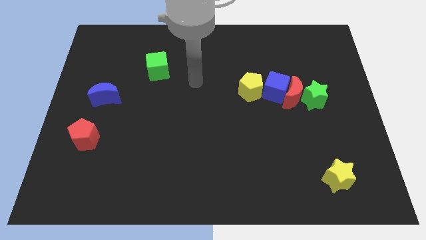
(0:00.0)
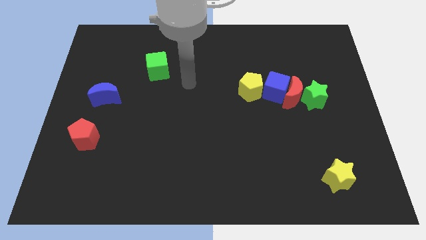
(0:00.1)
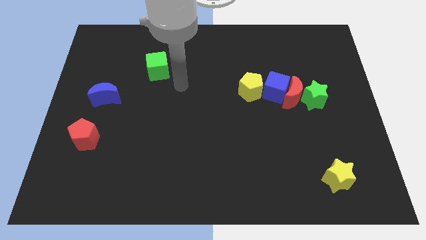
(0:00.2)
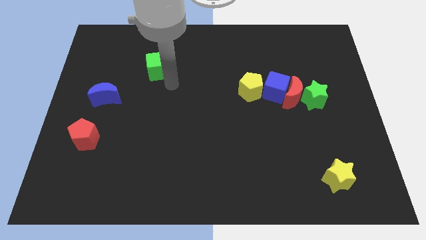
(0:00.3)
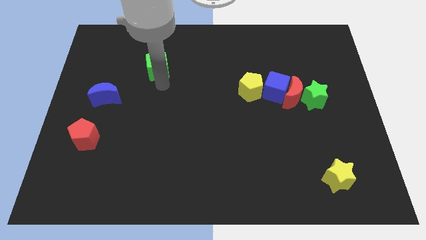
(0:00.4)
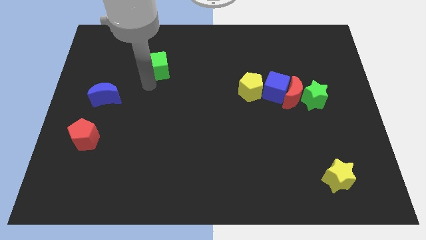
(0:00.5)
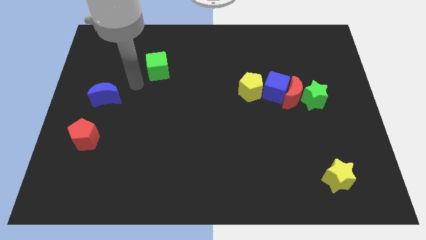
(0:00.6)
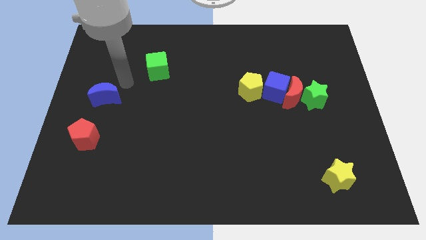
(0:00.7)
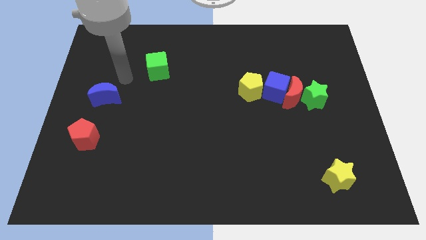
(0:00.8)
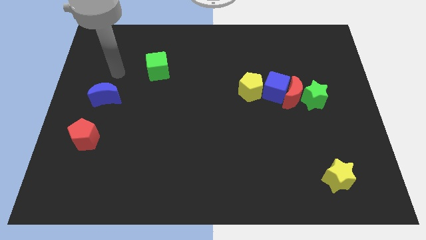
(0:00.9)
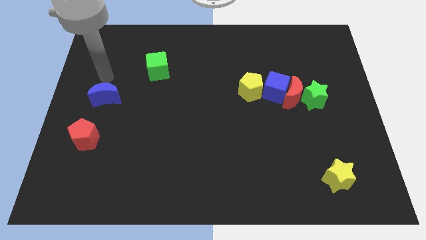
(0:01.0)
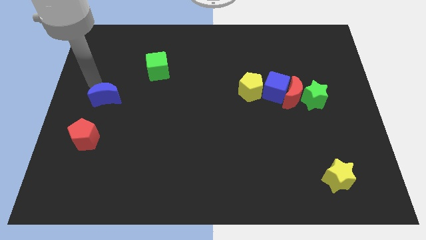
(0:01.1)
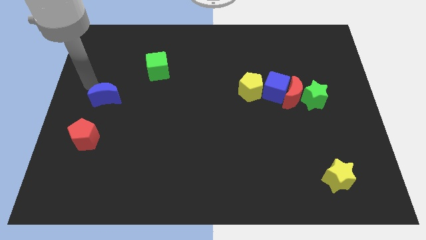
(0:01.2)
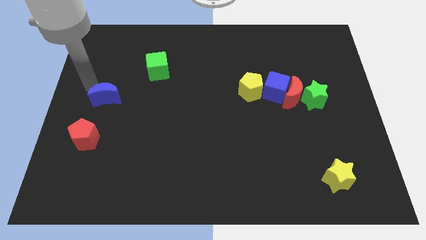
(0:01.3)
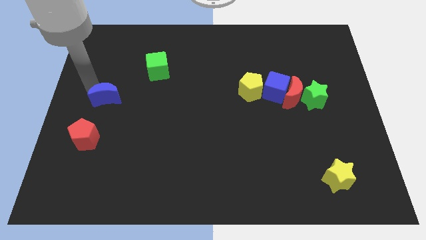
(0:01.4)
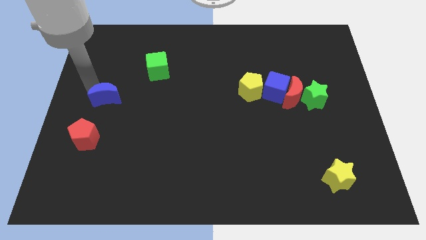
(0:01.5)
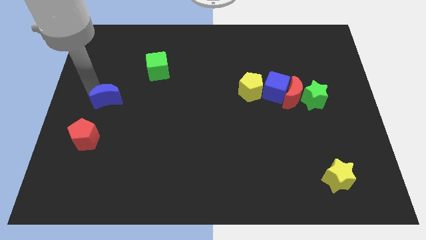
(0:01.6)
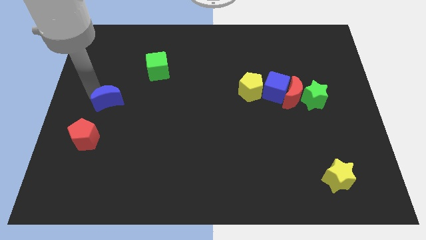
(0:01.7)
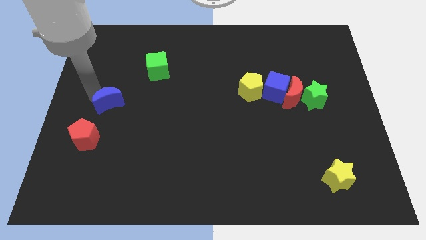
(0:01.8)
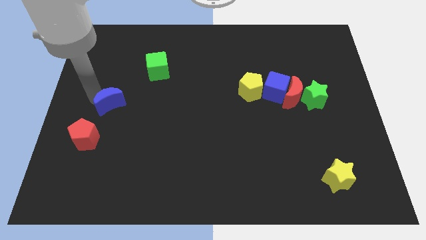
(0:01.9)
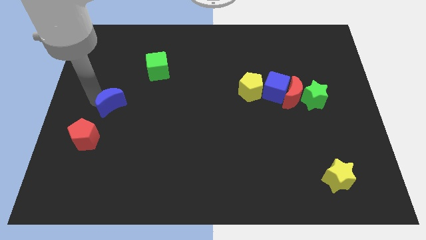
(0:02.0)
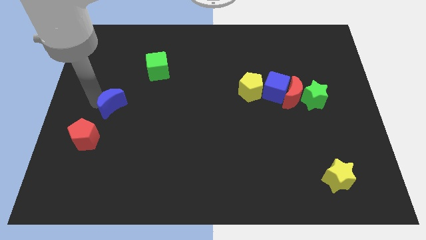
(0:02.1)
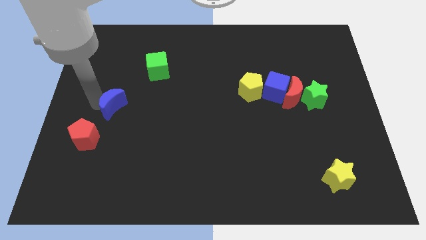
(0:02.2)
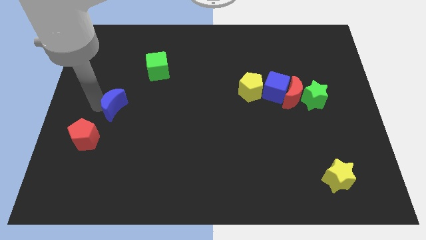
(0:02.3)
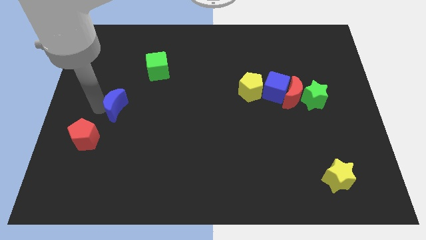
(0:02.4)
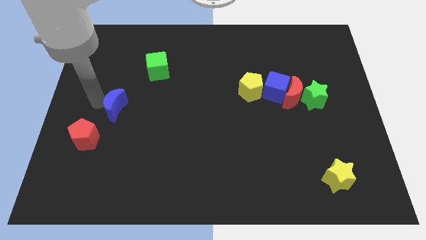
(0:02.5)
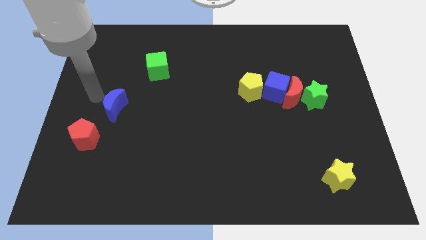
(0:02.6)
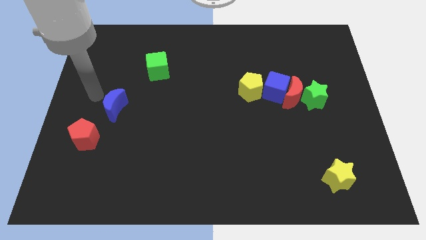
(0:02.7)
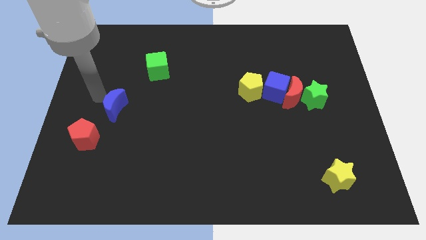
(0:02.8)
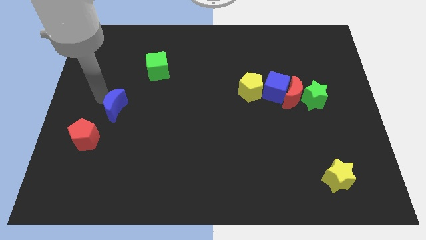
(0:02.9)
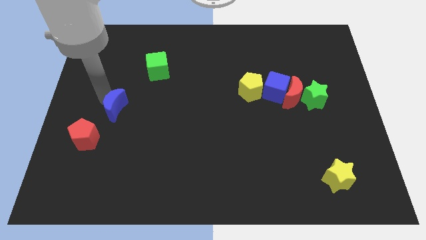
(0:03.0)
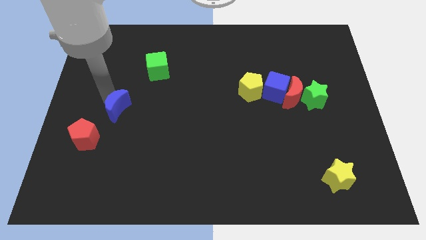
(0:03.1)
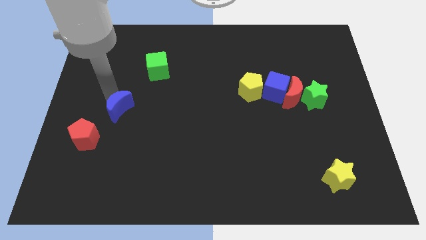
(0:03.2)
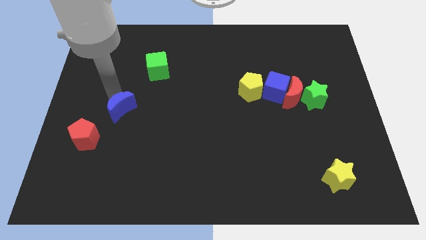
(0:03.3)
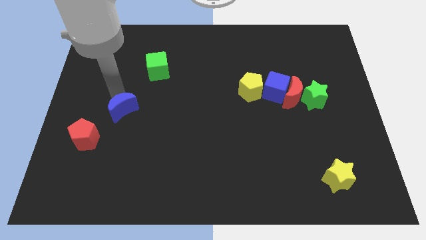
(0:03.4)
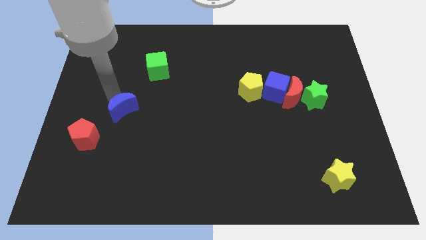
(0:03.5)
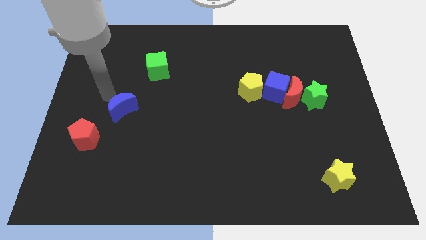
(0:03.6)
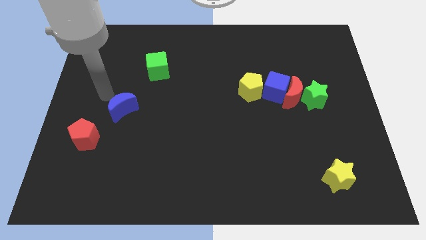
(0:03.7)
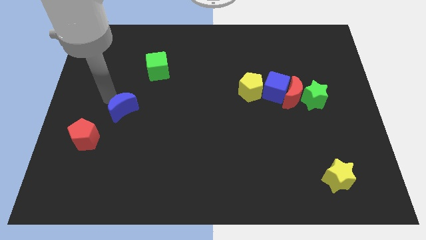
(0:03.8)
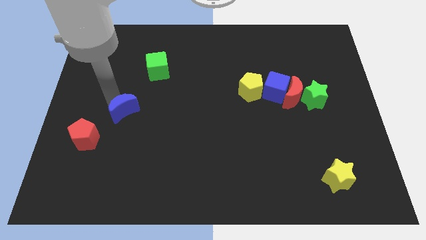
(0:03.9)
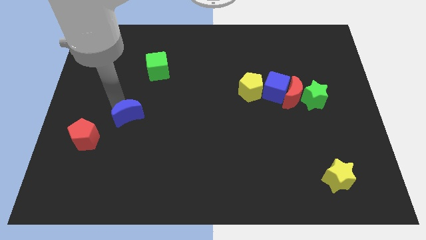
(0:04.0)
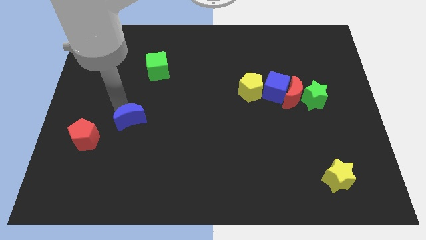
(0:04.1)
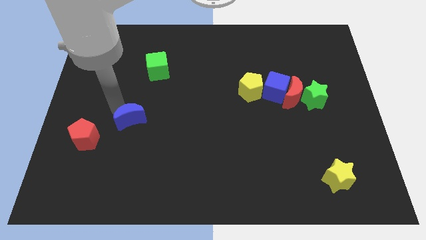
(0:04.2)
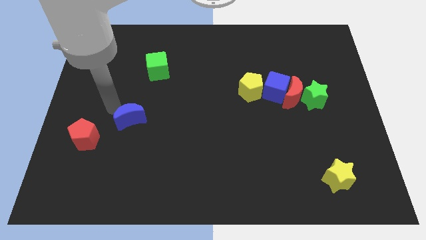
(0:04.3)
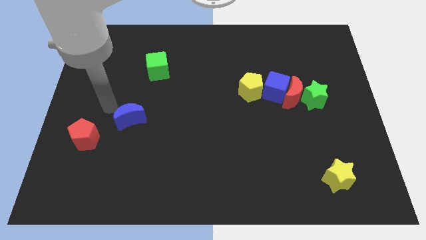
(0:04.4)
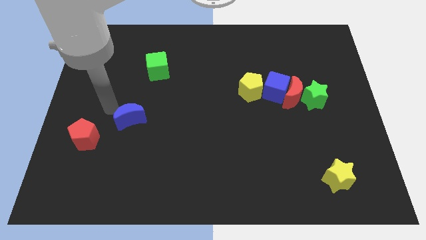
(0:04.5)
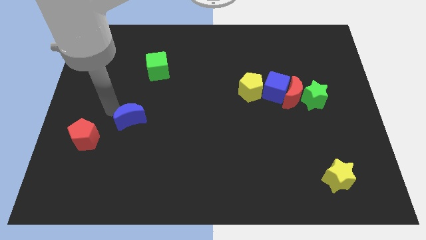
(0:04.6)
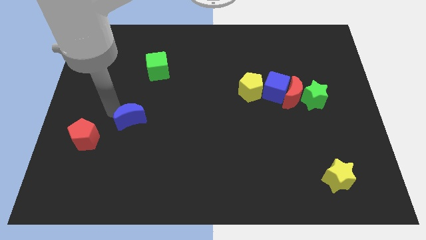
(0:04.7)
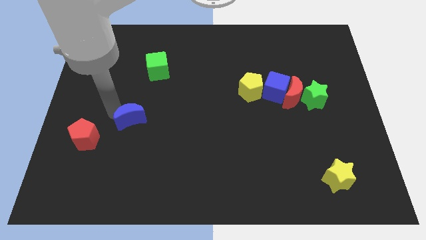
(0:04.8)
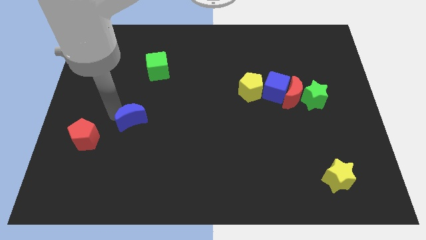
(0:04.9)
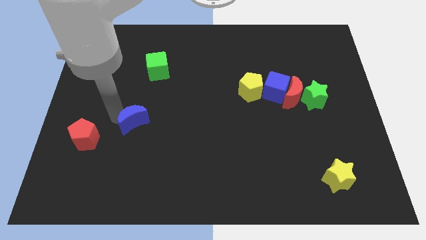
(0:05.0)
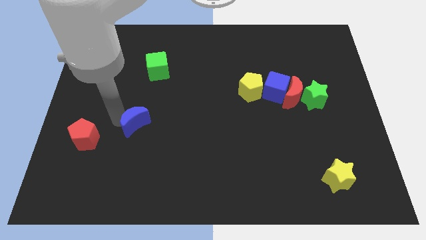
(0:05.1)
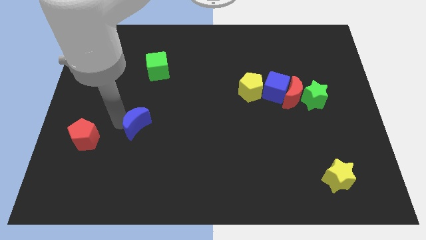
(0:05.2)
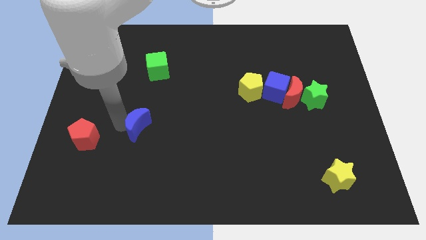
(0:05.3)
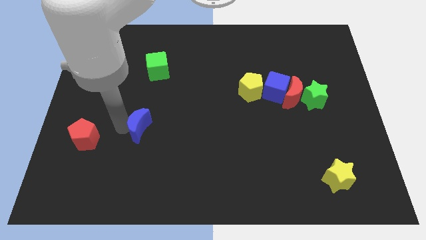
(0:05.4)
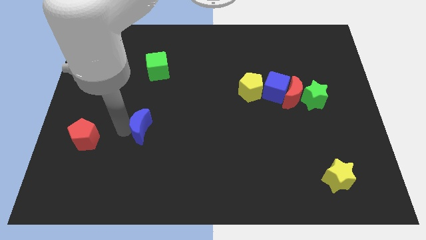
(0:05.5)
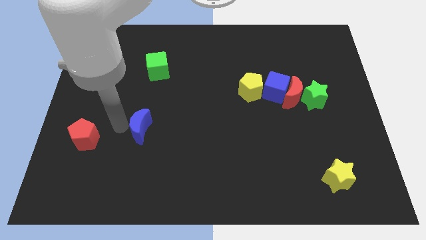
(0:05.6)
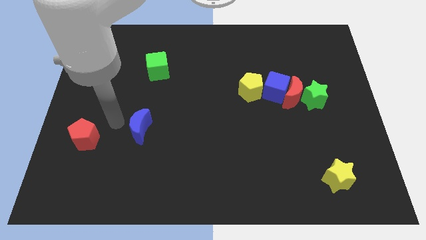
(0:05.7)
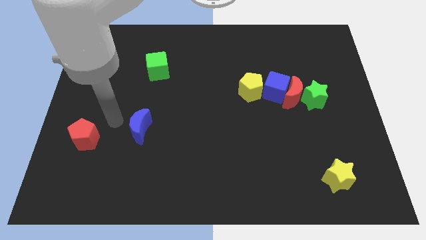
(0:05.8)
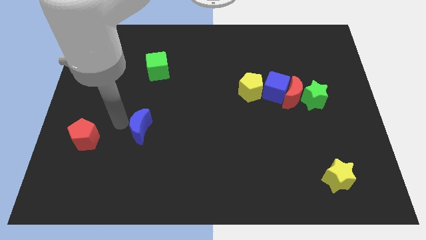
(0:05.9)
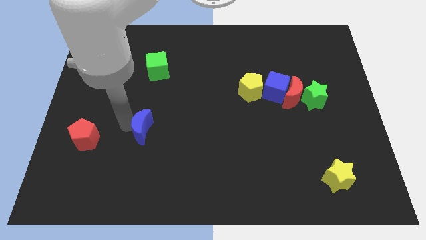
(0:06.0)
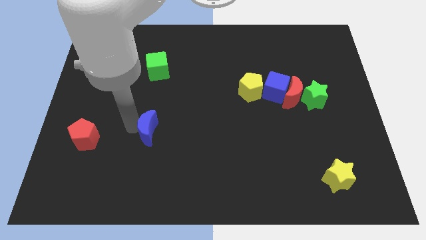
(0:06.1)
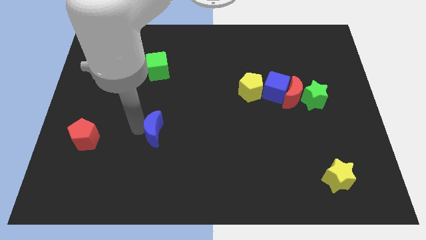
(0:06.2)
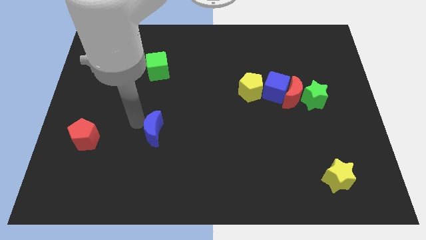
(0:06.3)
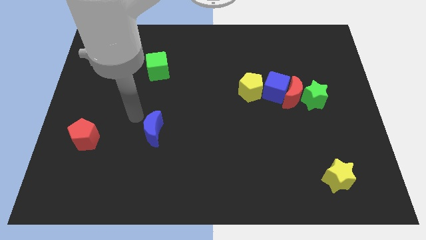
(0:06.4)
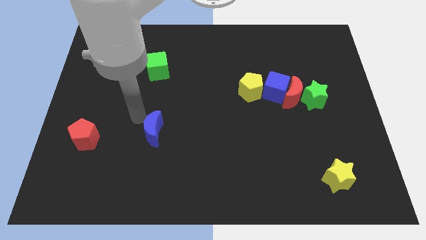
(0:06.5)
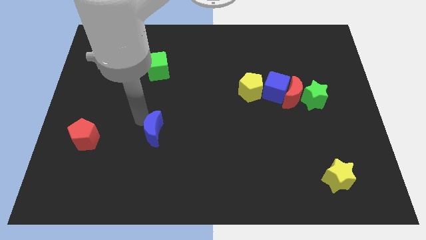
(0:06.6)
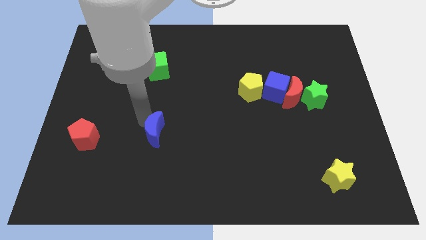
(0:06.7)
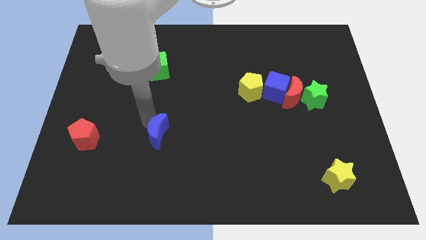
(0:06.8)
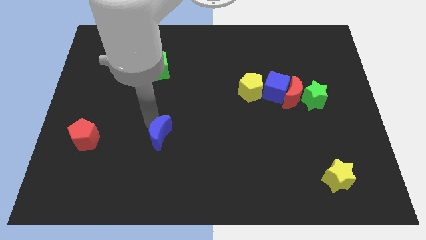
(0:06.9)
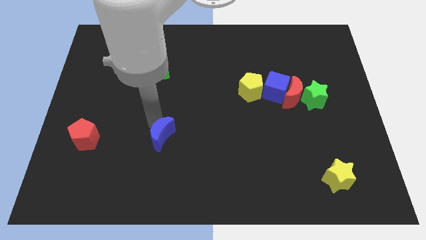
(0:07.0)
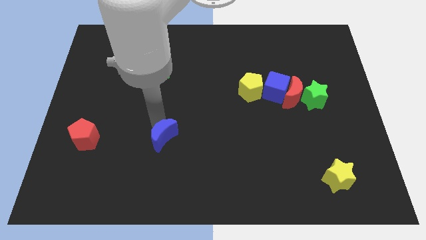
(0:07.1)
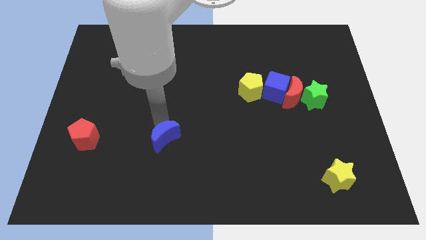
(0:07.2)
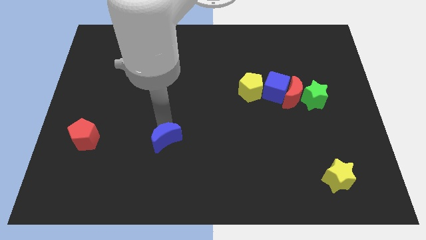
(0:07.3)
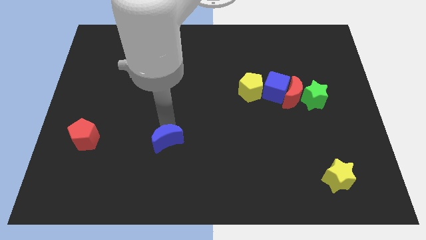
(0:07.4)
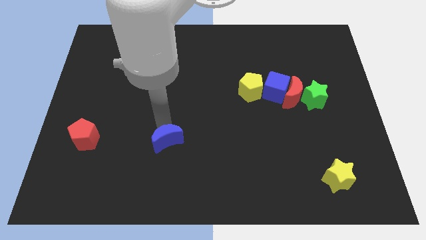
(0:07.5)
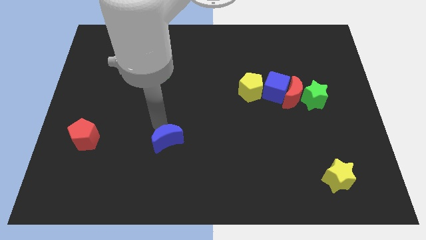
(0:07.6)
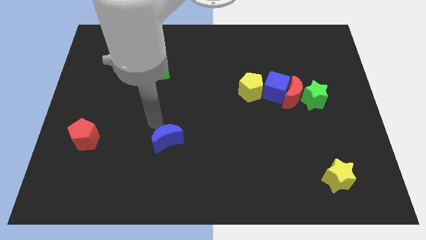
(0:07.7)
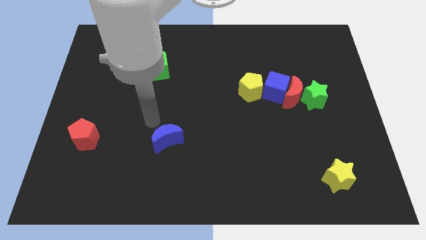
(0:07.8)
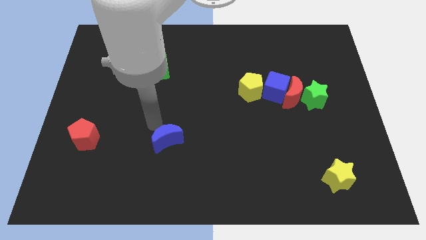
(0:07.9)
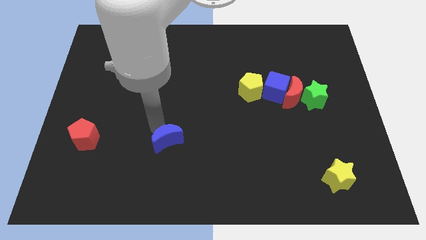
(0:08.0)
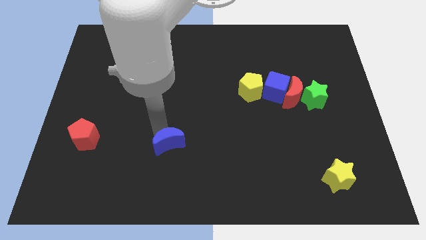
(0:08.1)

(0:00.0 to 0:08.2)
slide the blue moon downwards and to the right
